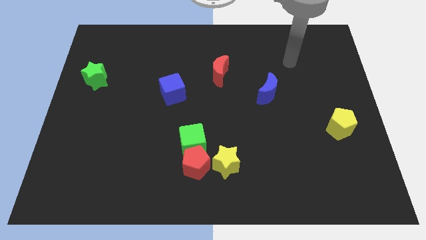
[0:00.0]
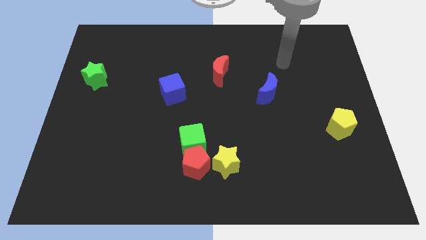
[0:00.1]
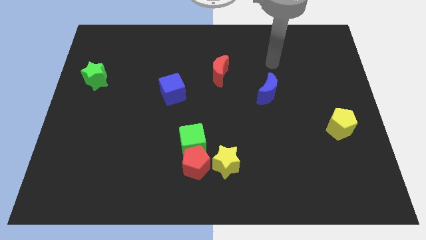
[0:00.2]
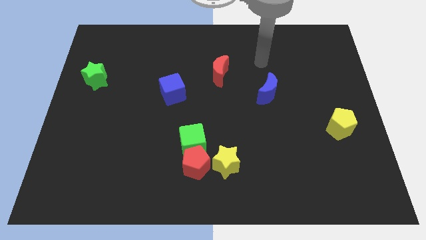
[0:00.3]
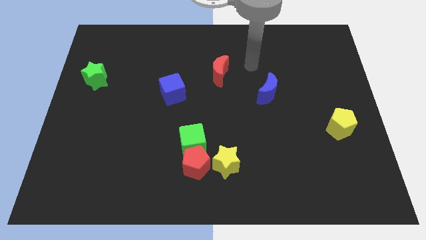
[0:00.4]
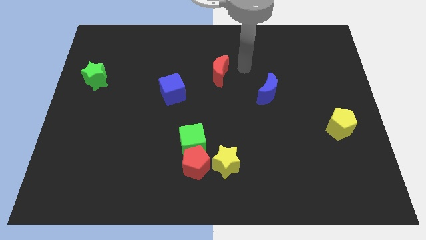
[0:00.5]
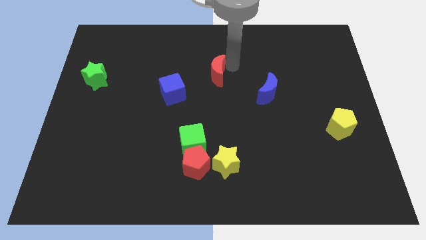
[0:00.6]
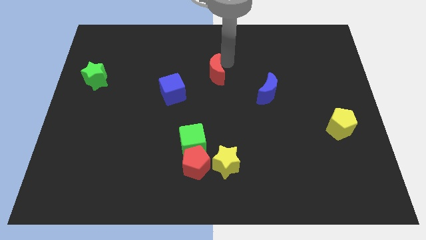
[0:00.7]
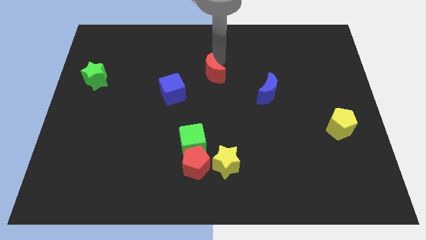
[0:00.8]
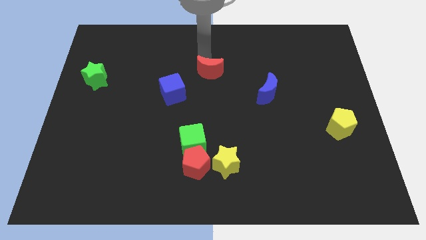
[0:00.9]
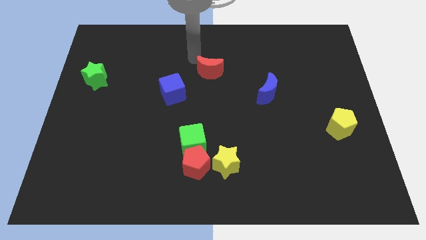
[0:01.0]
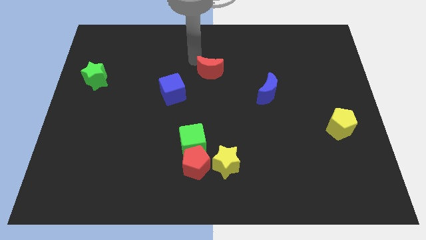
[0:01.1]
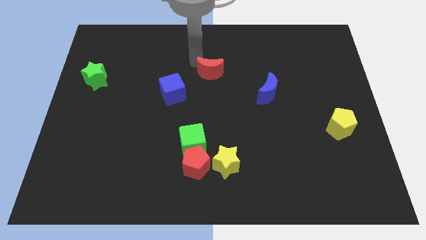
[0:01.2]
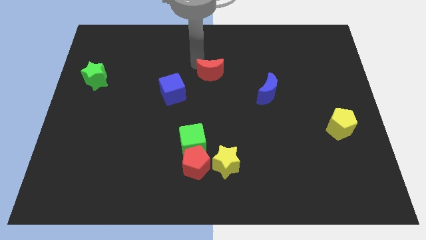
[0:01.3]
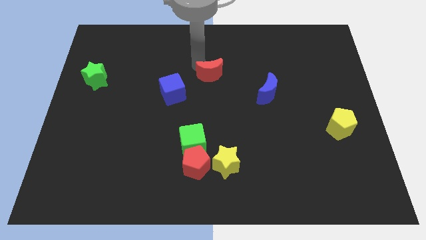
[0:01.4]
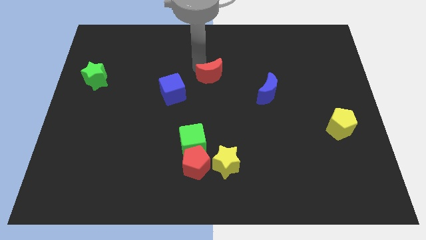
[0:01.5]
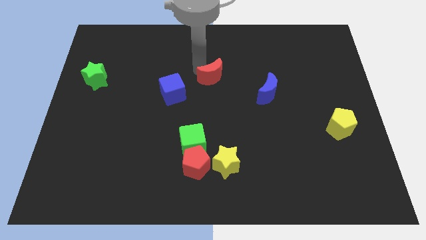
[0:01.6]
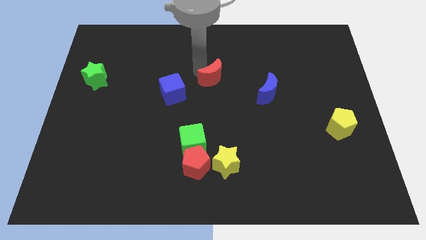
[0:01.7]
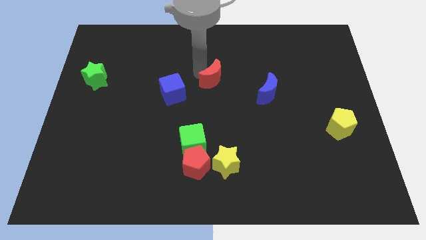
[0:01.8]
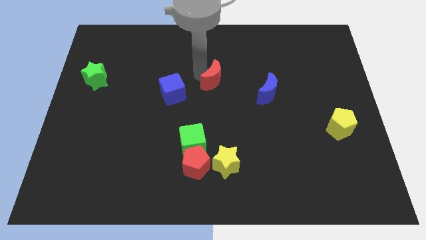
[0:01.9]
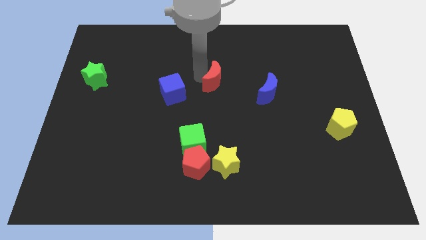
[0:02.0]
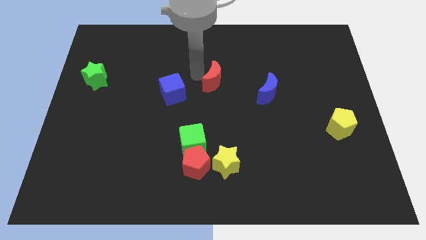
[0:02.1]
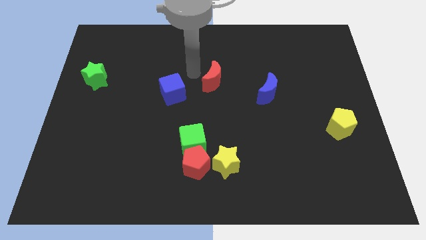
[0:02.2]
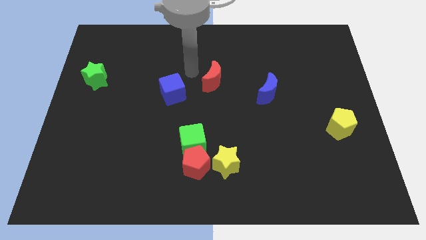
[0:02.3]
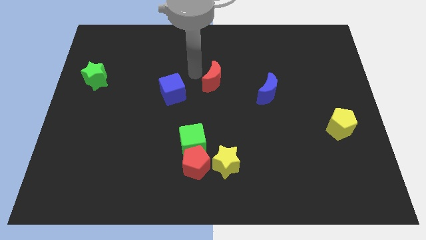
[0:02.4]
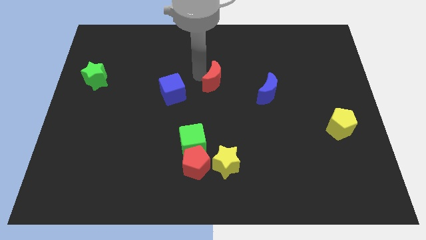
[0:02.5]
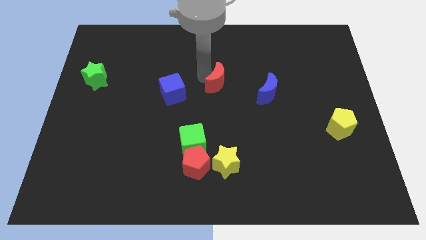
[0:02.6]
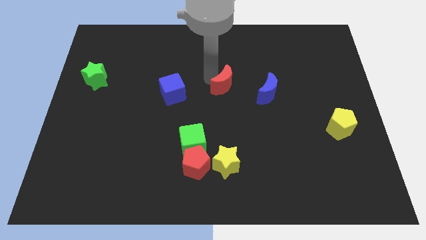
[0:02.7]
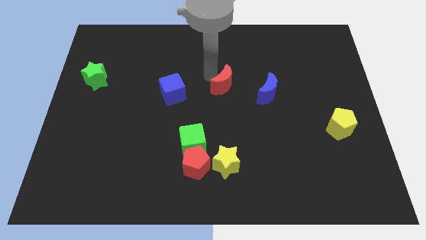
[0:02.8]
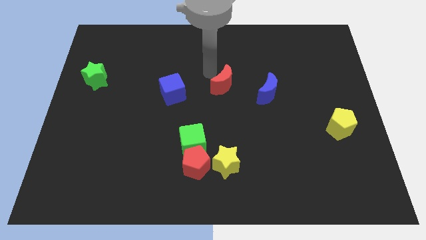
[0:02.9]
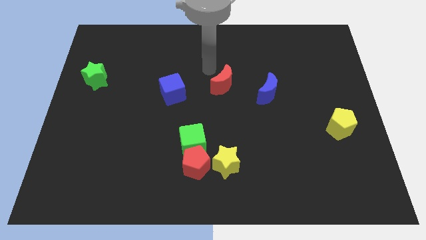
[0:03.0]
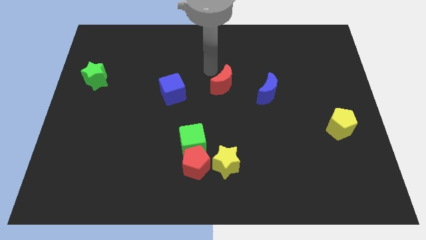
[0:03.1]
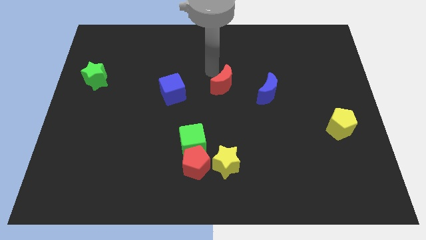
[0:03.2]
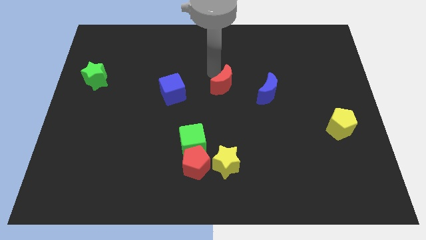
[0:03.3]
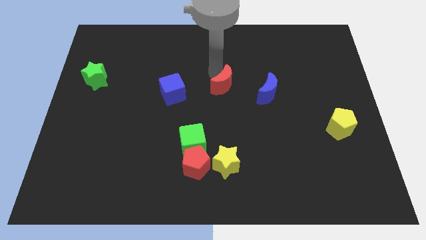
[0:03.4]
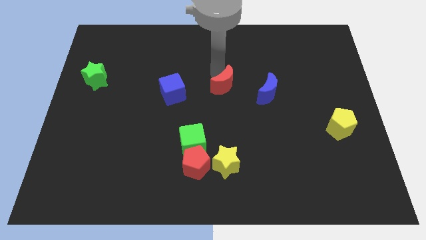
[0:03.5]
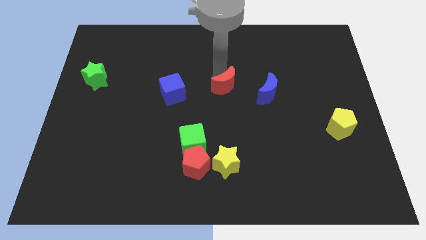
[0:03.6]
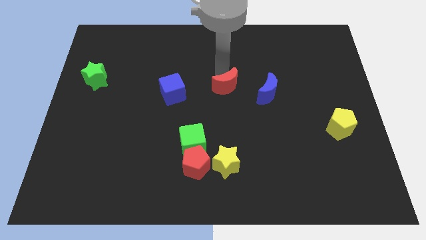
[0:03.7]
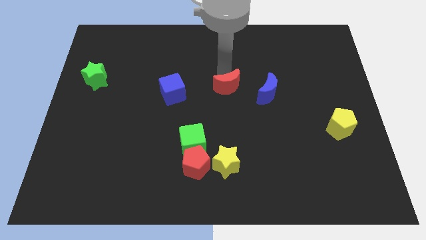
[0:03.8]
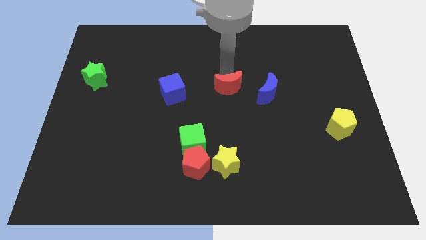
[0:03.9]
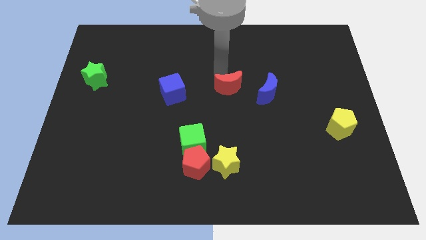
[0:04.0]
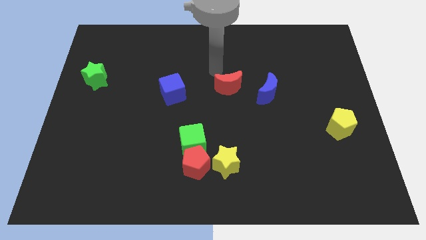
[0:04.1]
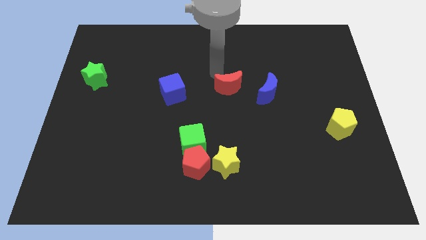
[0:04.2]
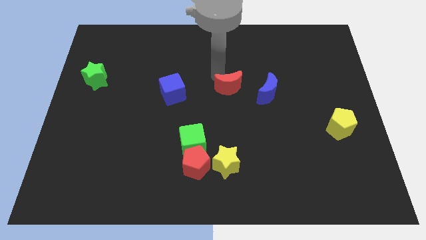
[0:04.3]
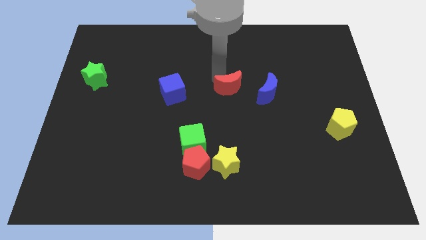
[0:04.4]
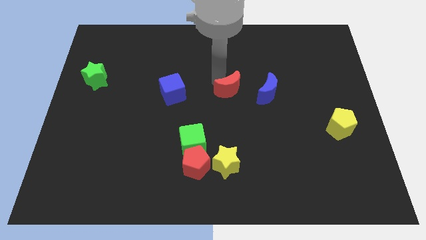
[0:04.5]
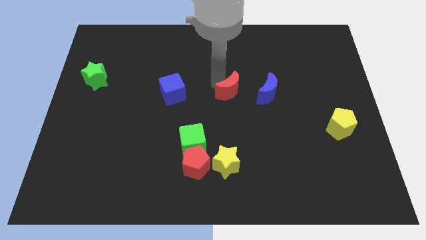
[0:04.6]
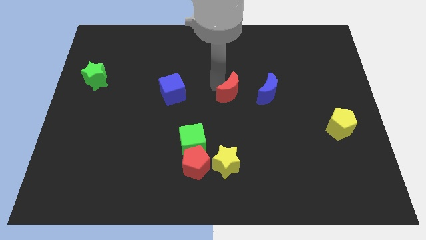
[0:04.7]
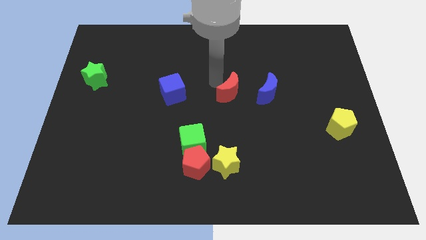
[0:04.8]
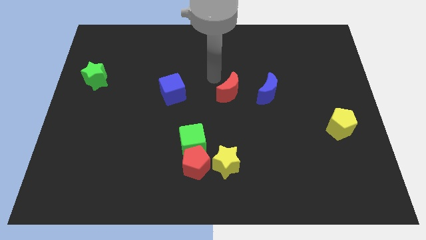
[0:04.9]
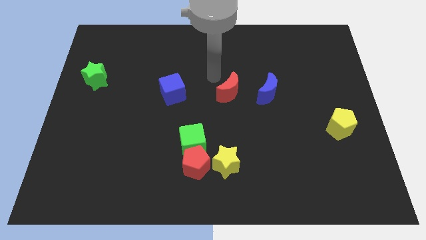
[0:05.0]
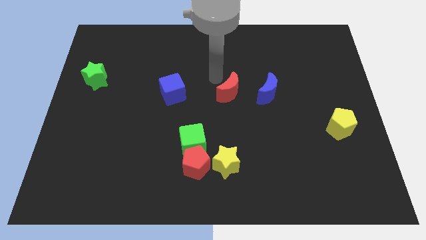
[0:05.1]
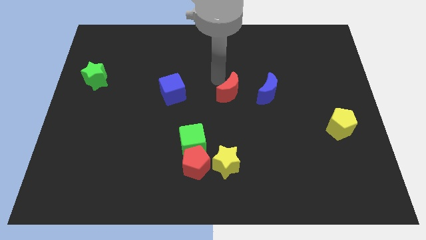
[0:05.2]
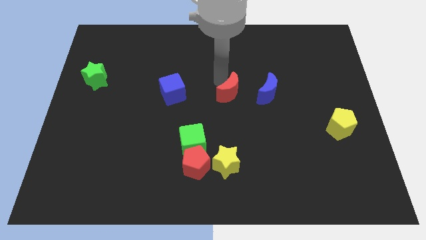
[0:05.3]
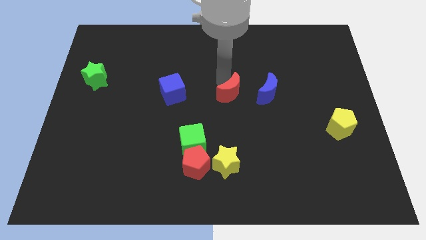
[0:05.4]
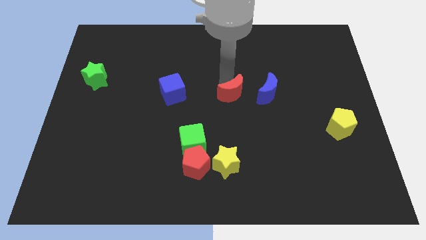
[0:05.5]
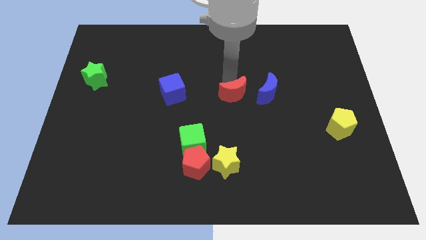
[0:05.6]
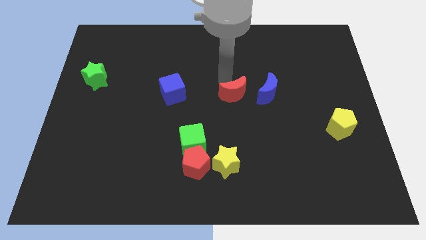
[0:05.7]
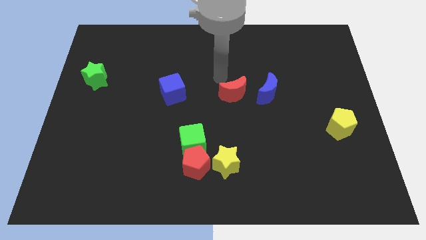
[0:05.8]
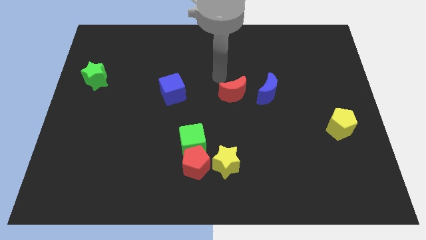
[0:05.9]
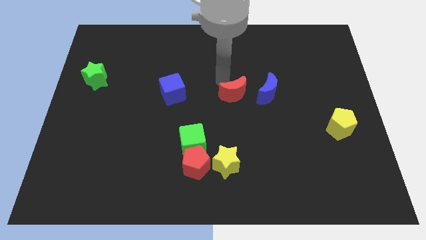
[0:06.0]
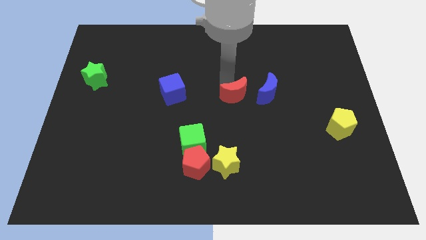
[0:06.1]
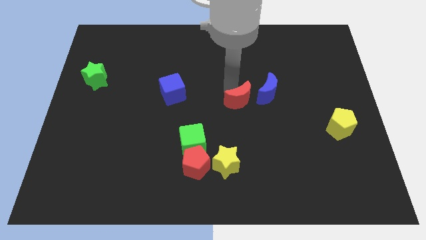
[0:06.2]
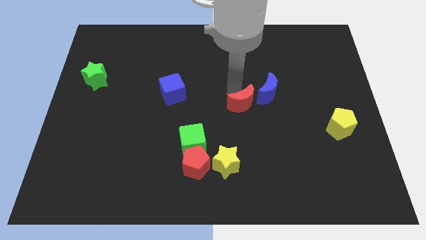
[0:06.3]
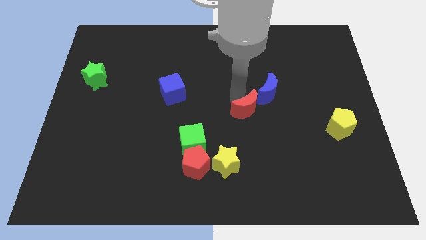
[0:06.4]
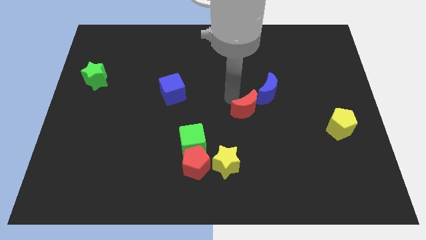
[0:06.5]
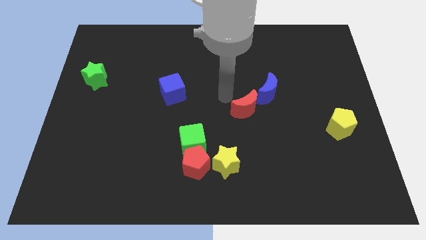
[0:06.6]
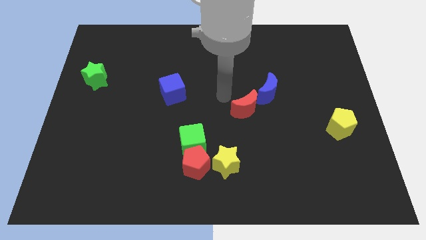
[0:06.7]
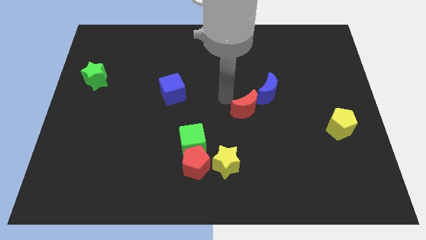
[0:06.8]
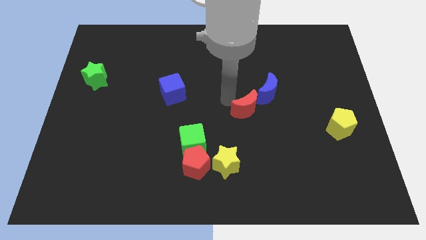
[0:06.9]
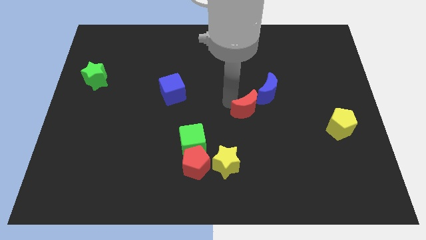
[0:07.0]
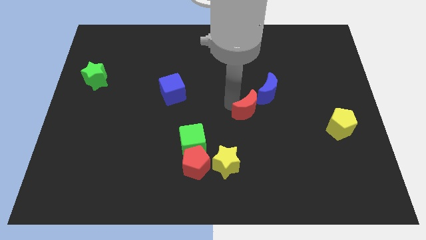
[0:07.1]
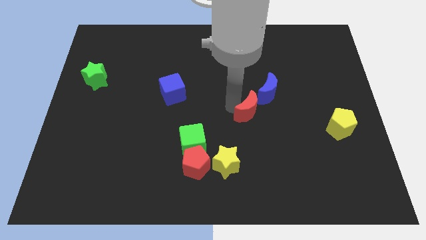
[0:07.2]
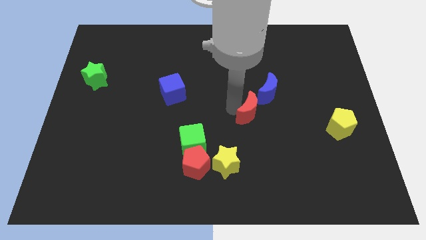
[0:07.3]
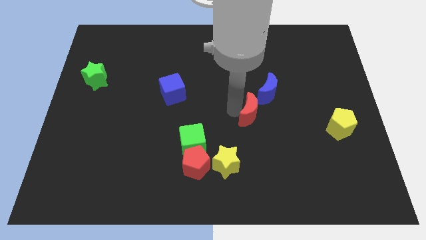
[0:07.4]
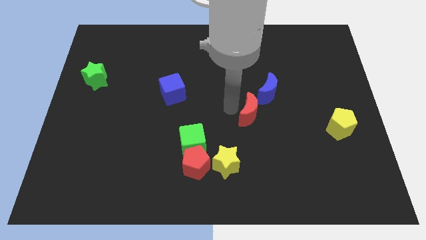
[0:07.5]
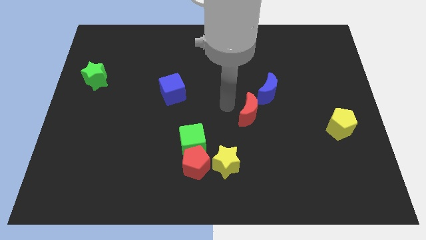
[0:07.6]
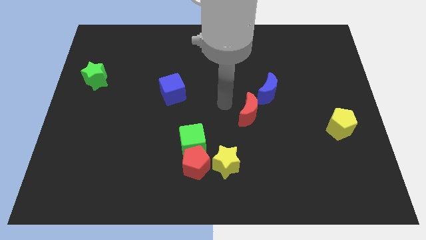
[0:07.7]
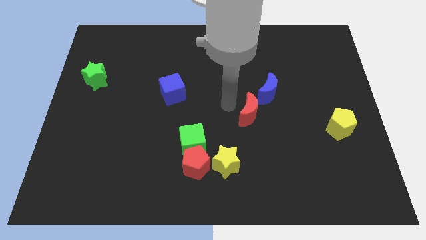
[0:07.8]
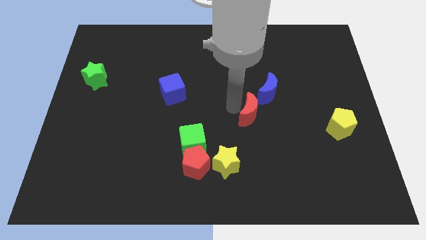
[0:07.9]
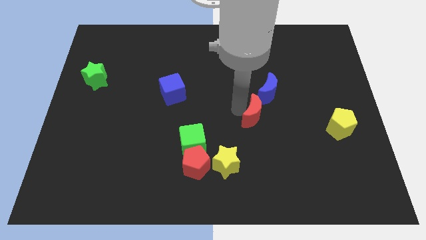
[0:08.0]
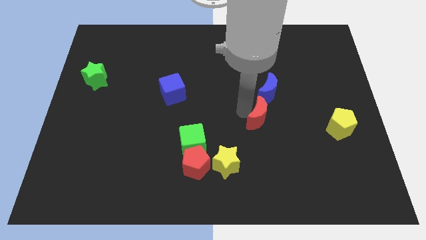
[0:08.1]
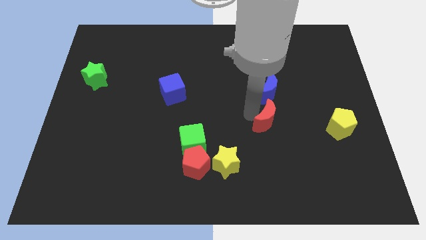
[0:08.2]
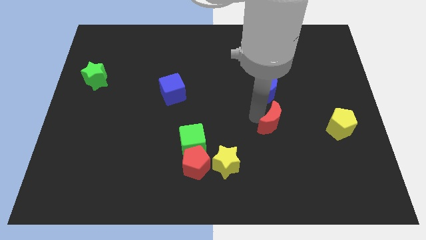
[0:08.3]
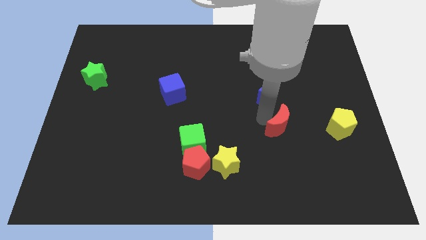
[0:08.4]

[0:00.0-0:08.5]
move the red moon down and right diagonally
